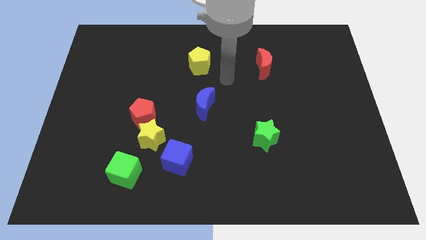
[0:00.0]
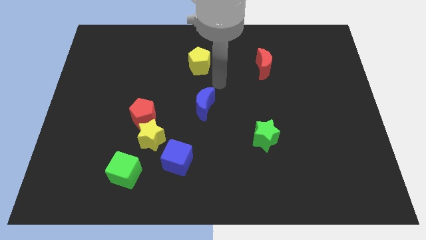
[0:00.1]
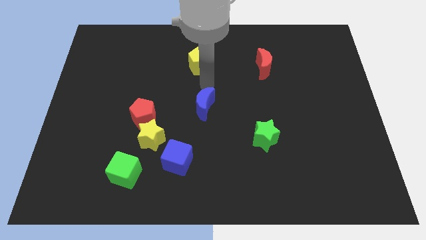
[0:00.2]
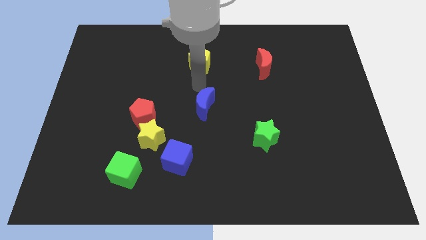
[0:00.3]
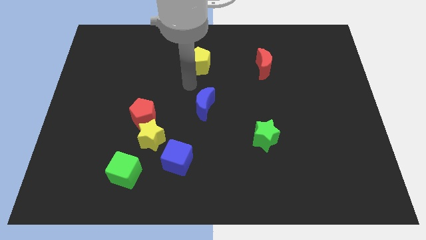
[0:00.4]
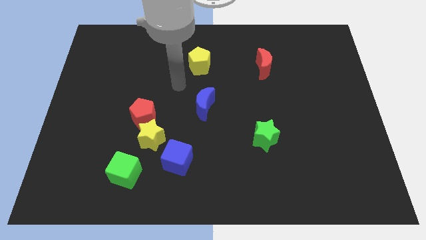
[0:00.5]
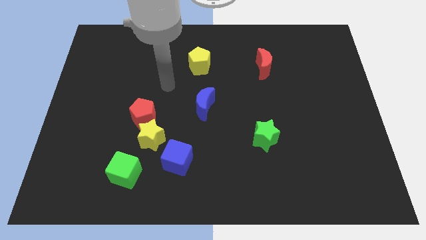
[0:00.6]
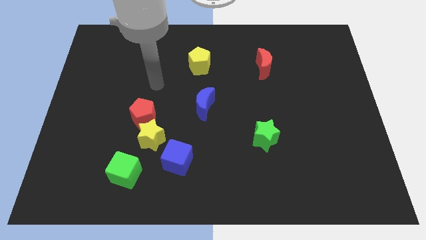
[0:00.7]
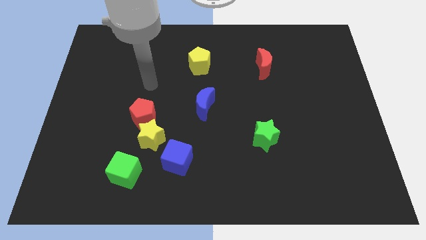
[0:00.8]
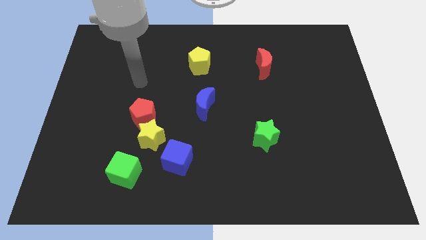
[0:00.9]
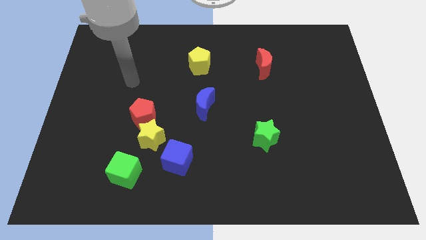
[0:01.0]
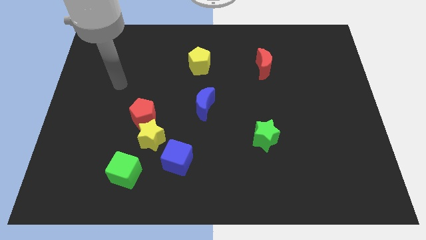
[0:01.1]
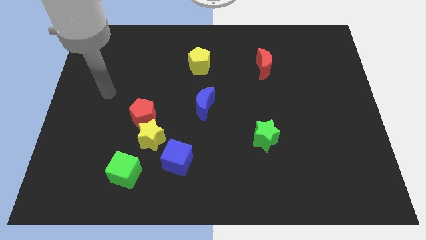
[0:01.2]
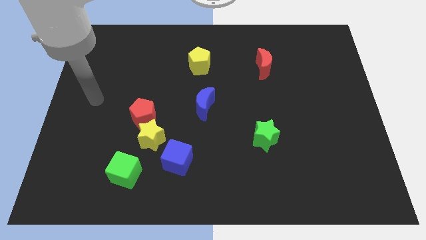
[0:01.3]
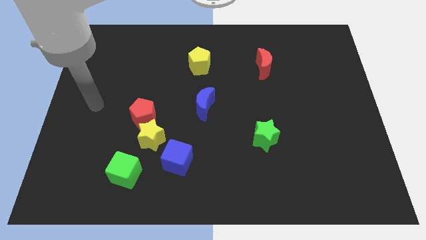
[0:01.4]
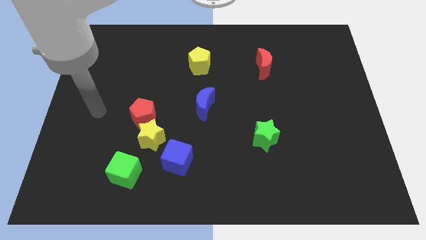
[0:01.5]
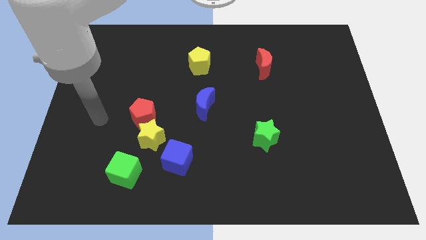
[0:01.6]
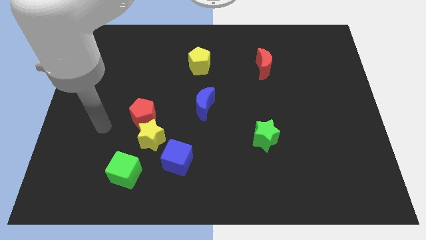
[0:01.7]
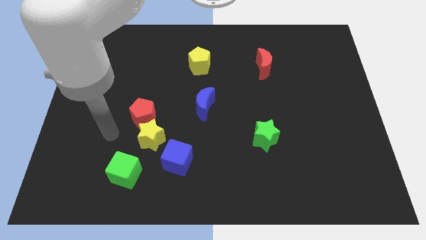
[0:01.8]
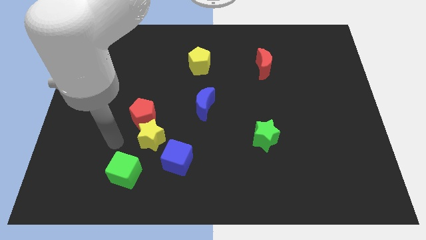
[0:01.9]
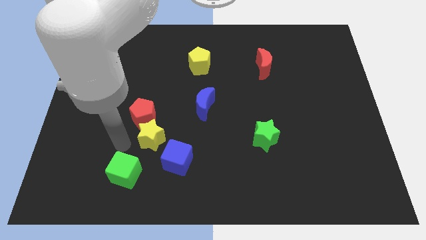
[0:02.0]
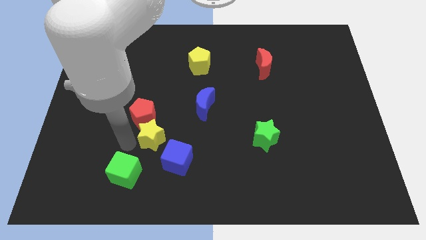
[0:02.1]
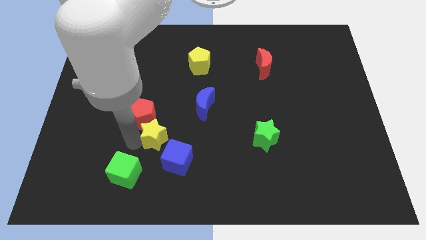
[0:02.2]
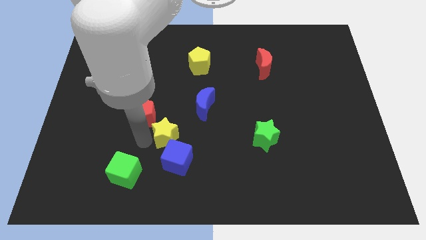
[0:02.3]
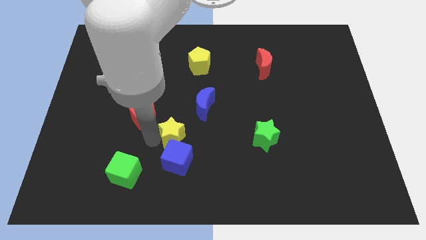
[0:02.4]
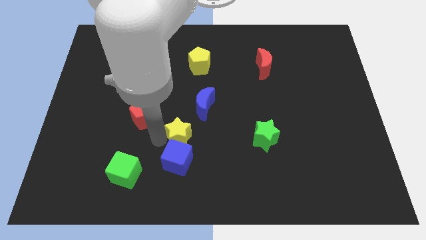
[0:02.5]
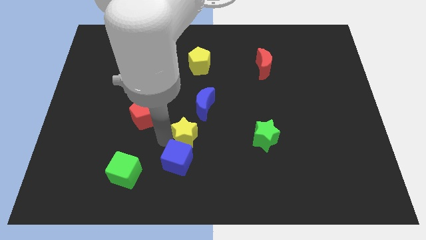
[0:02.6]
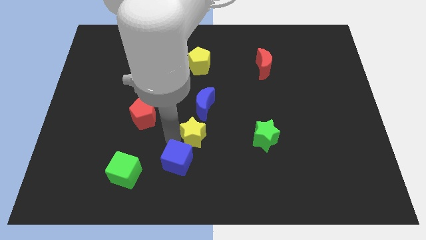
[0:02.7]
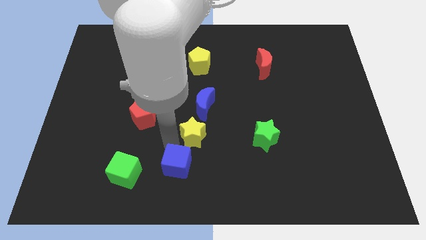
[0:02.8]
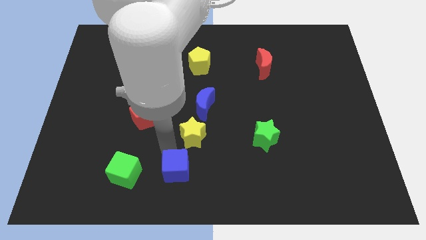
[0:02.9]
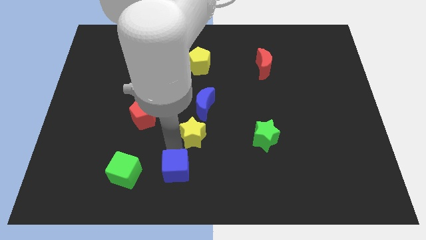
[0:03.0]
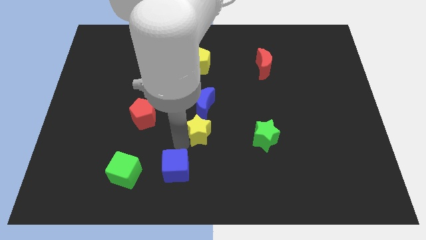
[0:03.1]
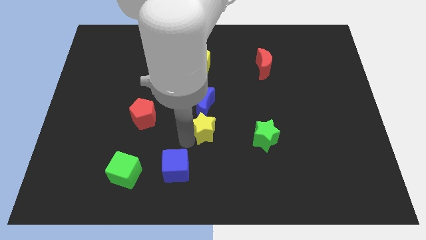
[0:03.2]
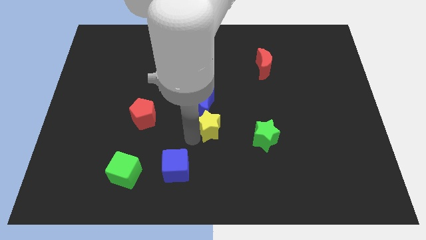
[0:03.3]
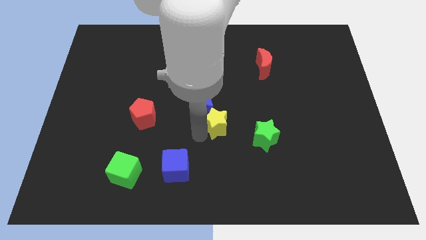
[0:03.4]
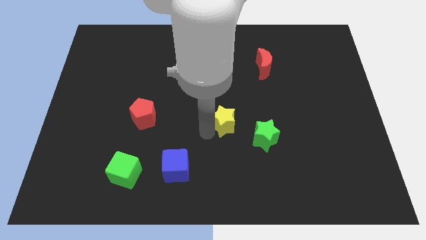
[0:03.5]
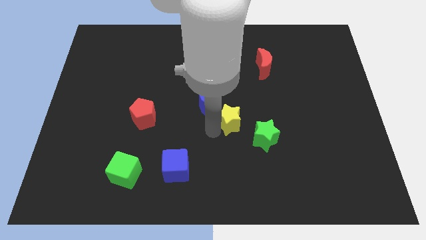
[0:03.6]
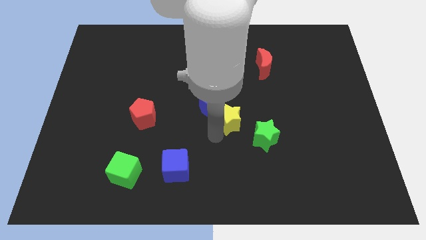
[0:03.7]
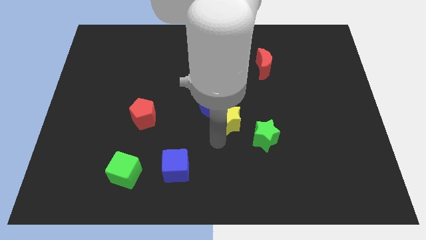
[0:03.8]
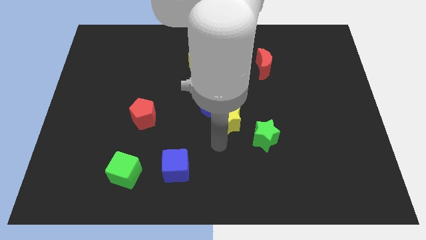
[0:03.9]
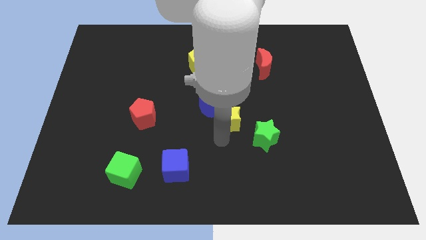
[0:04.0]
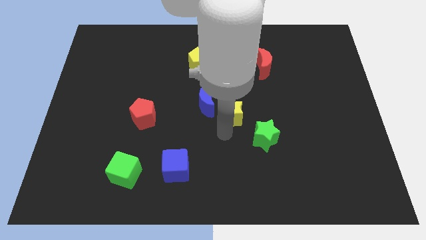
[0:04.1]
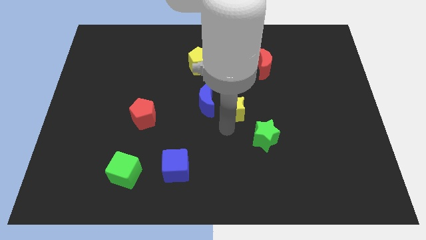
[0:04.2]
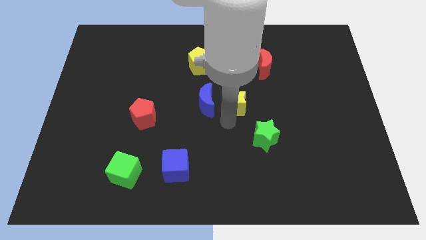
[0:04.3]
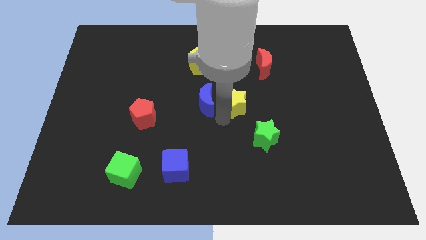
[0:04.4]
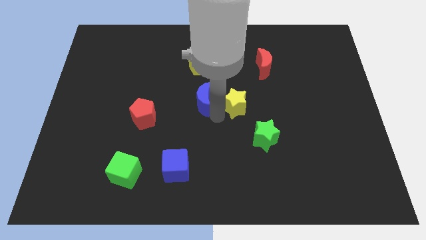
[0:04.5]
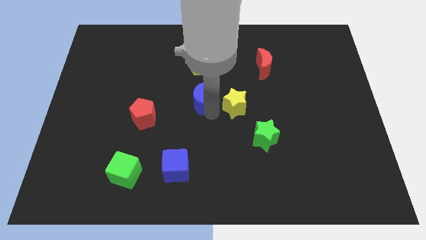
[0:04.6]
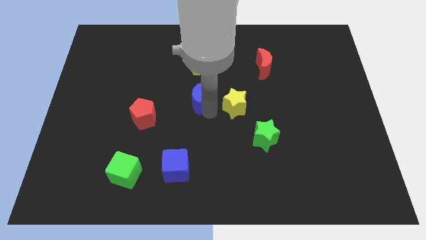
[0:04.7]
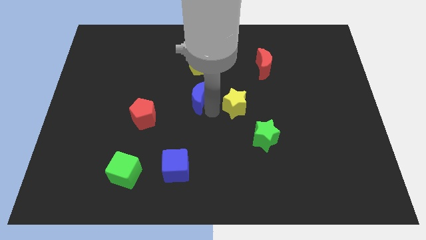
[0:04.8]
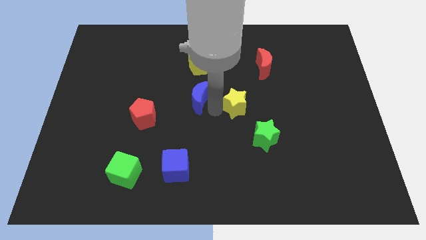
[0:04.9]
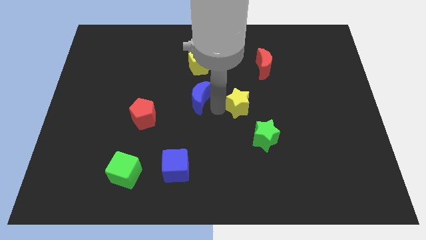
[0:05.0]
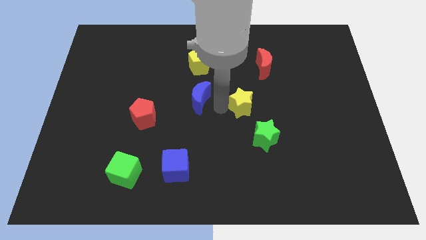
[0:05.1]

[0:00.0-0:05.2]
slide the yellow star above the green star

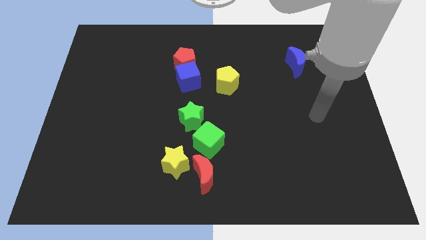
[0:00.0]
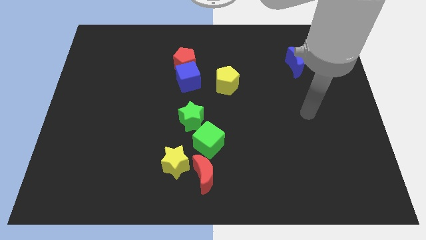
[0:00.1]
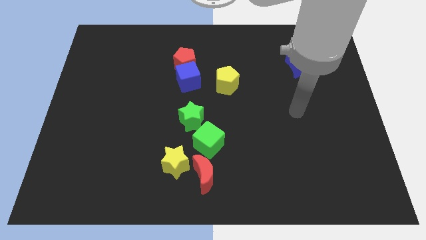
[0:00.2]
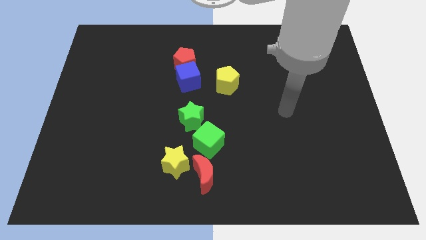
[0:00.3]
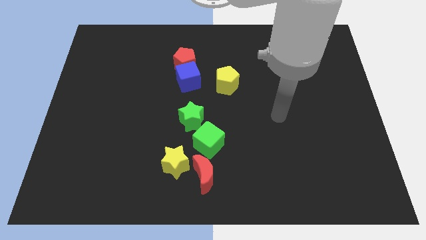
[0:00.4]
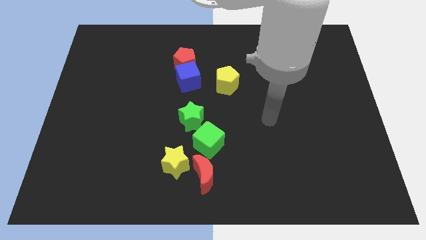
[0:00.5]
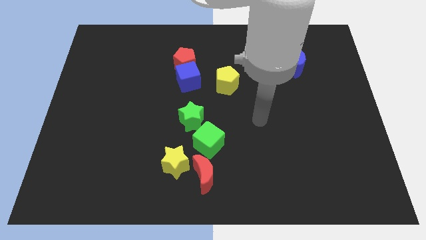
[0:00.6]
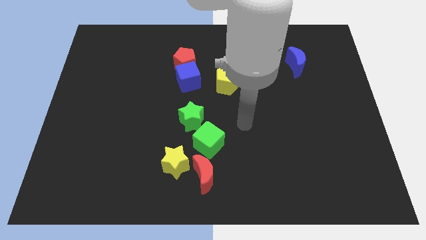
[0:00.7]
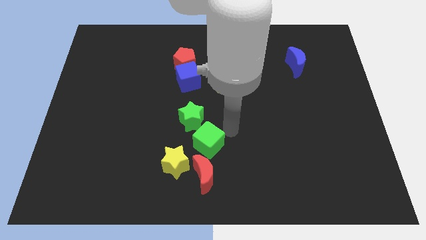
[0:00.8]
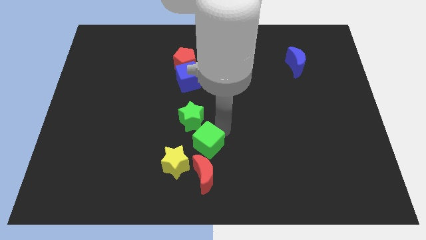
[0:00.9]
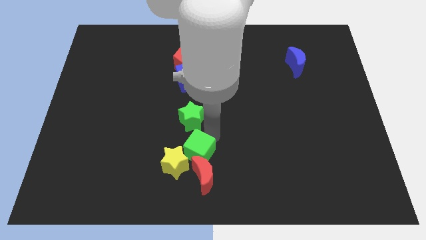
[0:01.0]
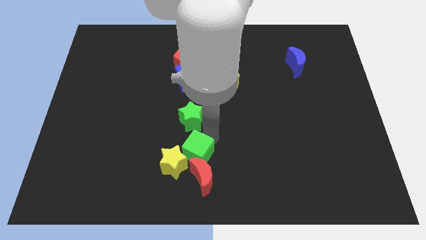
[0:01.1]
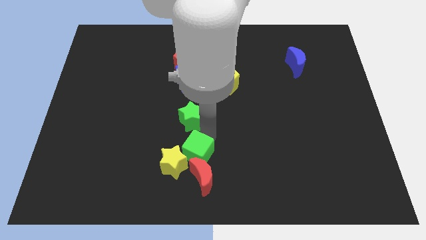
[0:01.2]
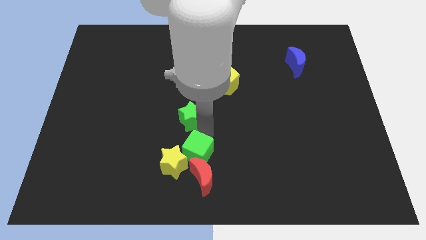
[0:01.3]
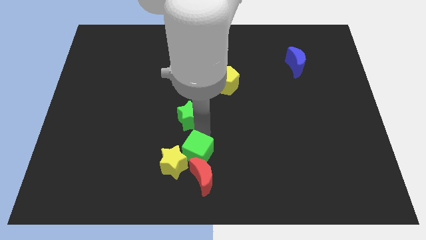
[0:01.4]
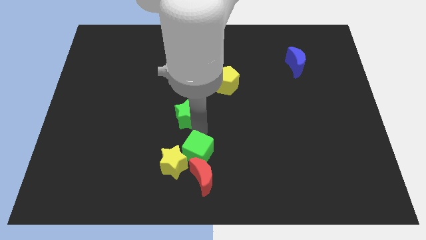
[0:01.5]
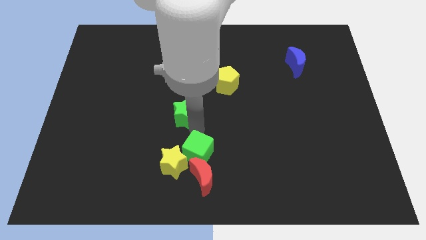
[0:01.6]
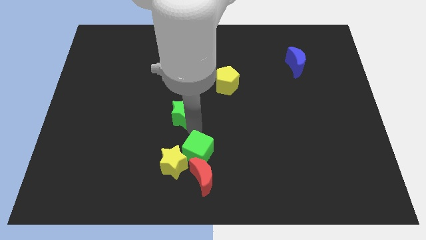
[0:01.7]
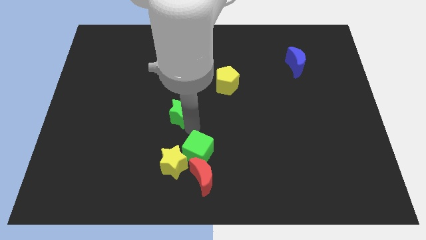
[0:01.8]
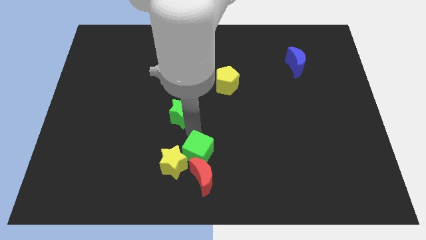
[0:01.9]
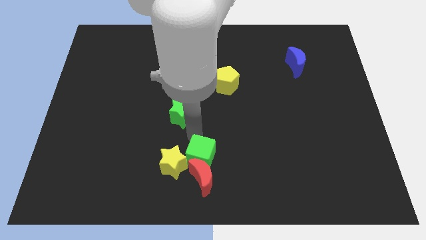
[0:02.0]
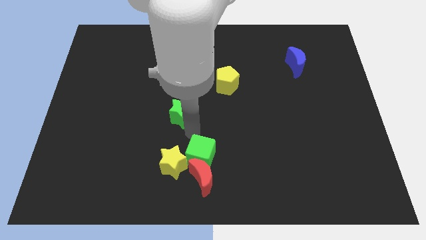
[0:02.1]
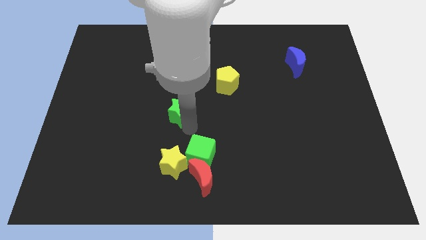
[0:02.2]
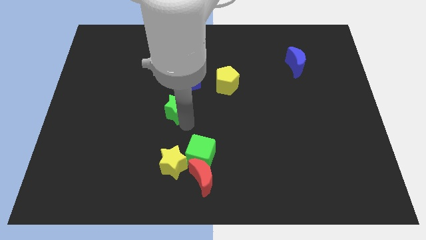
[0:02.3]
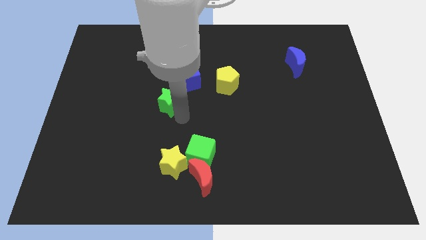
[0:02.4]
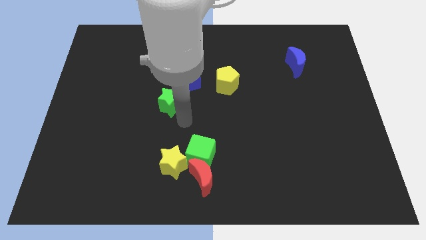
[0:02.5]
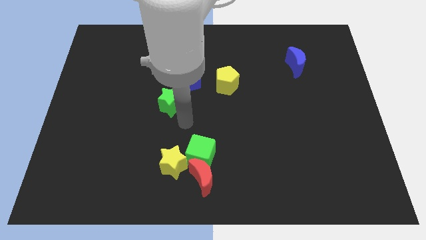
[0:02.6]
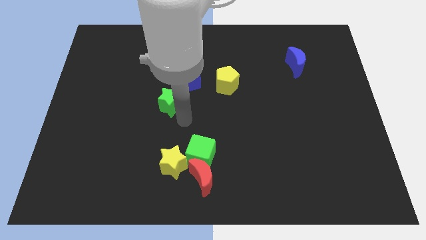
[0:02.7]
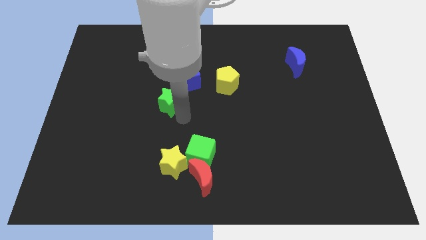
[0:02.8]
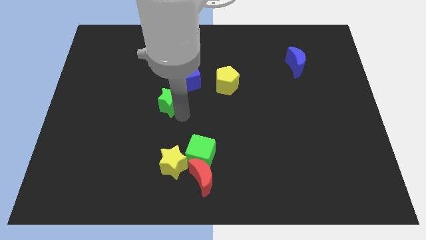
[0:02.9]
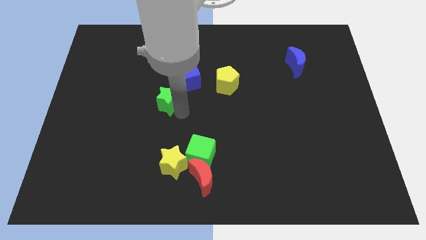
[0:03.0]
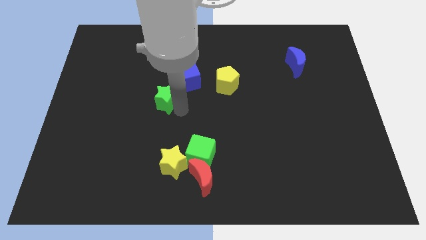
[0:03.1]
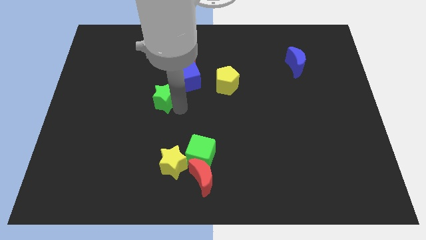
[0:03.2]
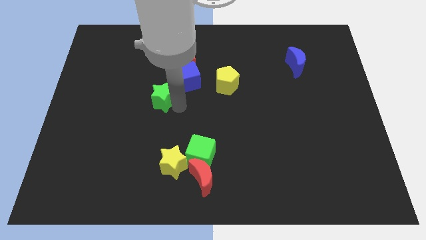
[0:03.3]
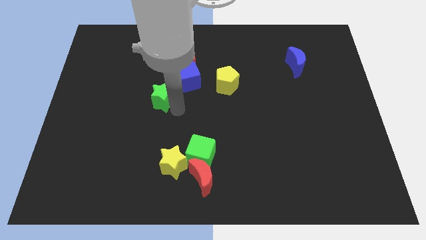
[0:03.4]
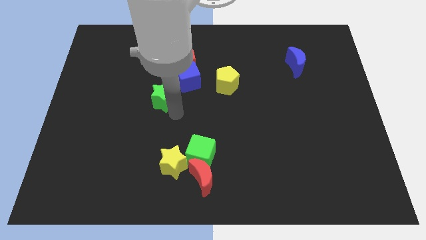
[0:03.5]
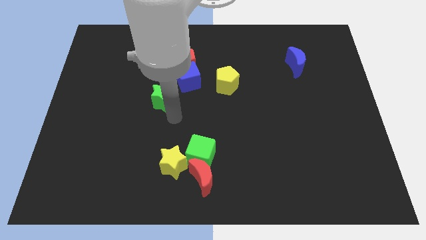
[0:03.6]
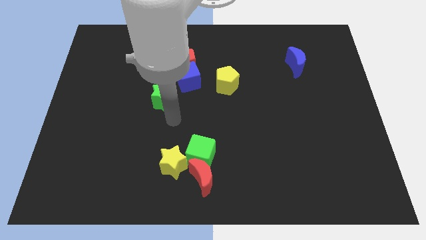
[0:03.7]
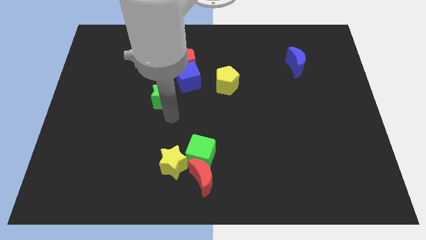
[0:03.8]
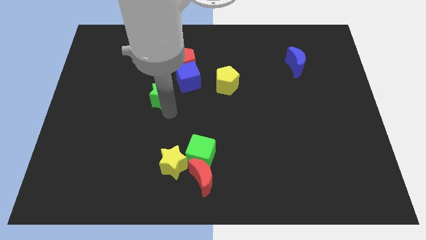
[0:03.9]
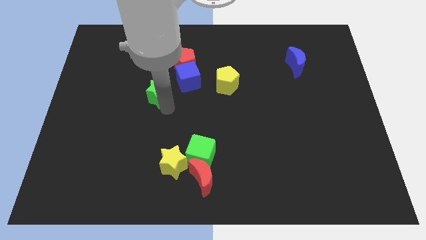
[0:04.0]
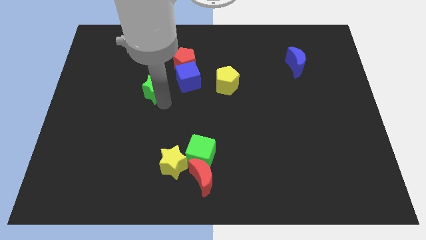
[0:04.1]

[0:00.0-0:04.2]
move the green star left of the blue cube
